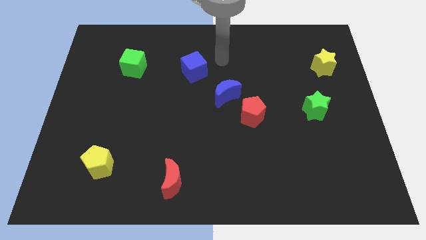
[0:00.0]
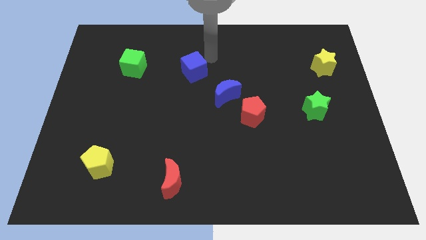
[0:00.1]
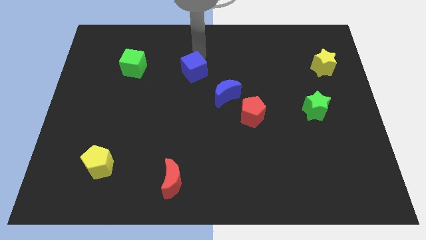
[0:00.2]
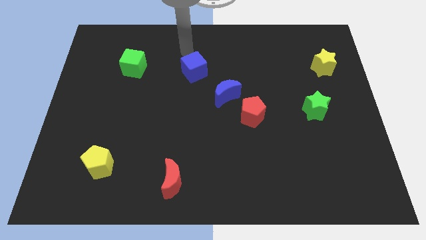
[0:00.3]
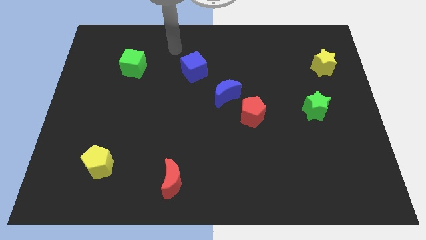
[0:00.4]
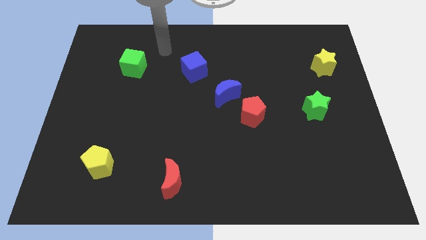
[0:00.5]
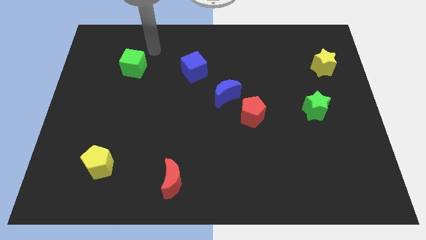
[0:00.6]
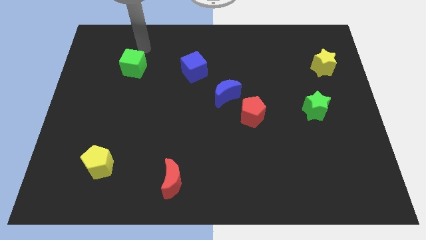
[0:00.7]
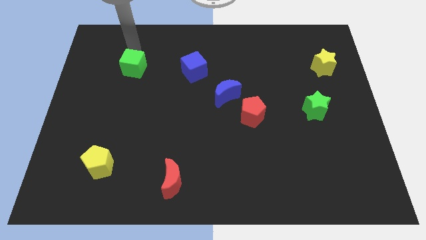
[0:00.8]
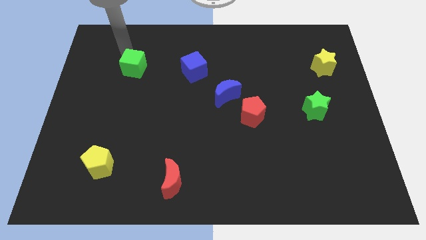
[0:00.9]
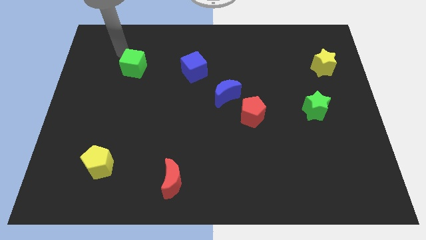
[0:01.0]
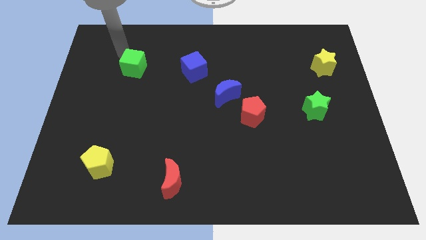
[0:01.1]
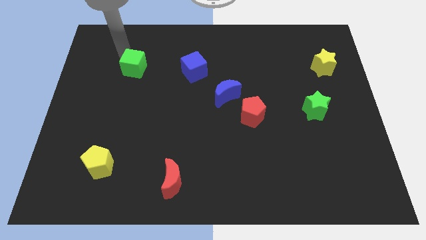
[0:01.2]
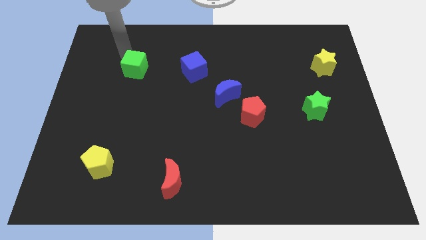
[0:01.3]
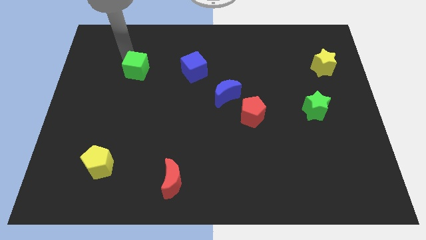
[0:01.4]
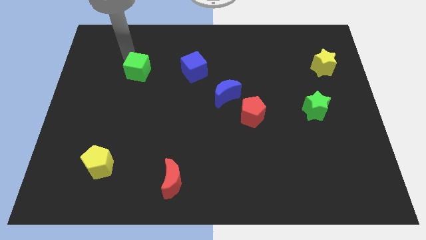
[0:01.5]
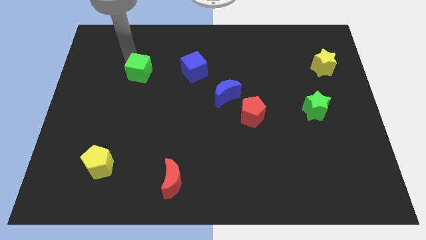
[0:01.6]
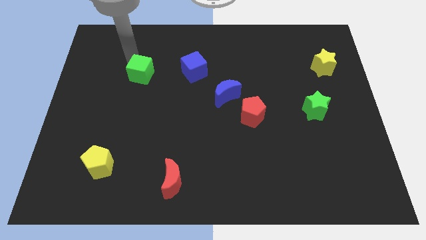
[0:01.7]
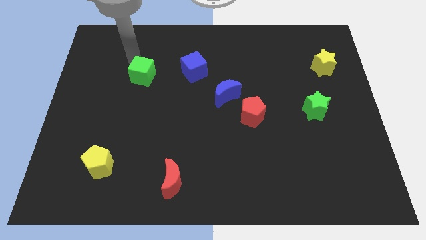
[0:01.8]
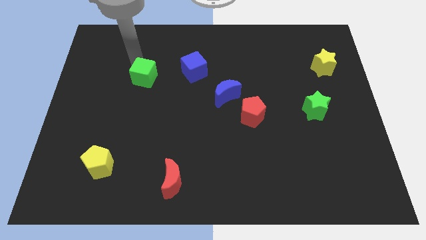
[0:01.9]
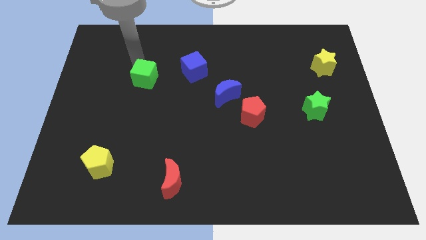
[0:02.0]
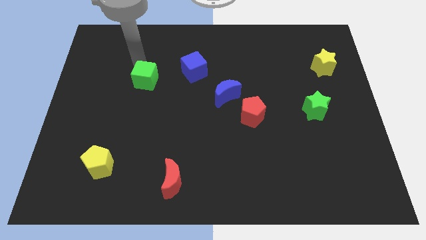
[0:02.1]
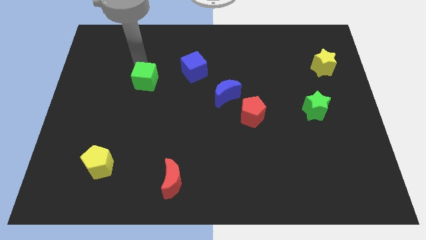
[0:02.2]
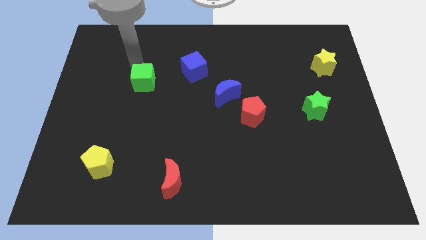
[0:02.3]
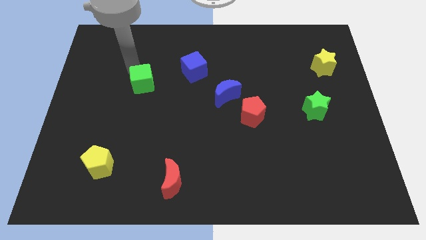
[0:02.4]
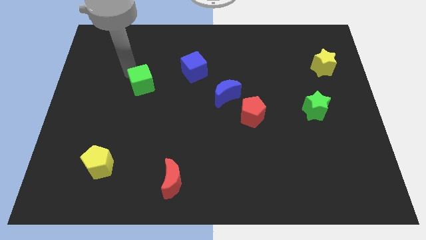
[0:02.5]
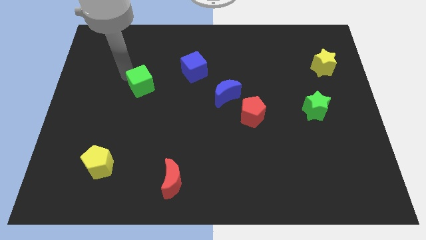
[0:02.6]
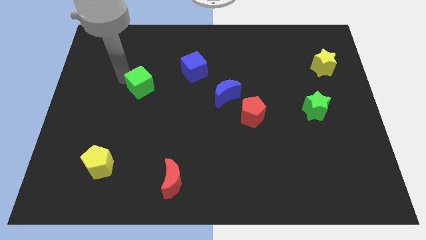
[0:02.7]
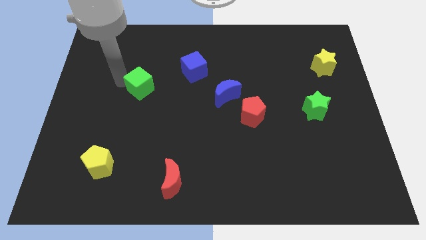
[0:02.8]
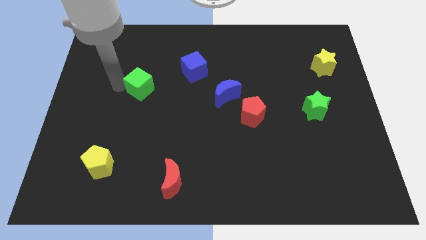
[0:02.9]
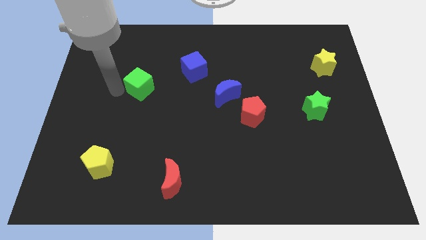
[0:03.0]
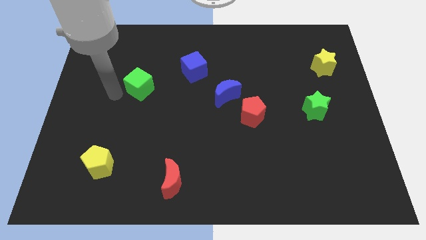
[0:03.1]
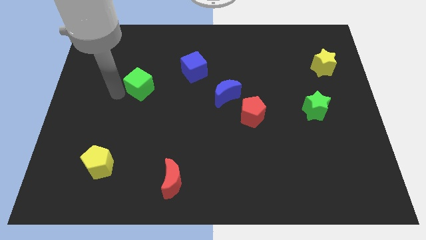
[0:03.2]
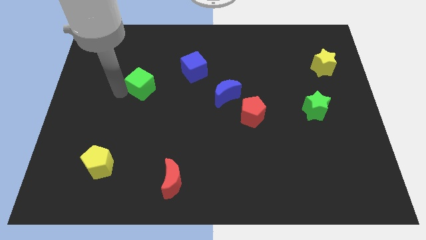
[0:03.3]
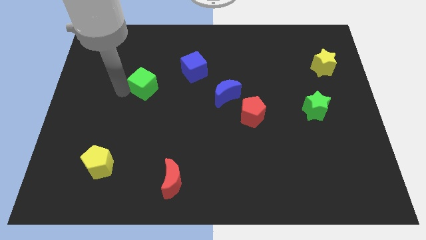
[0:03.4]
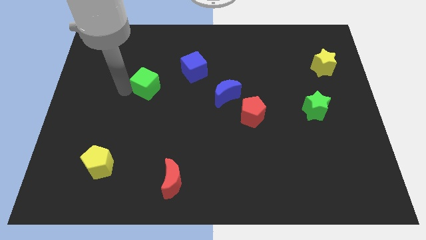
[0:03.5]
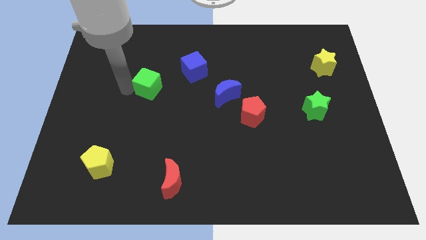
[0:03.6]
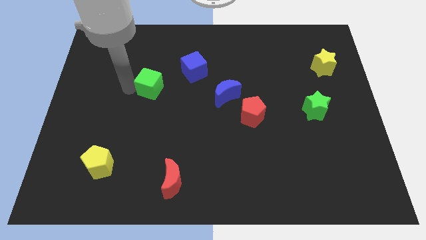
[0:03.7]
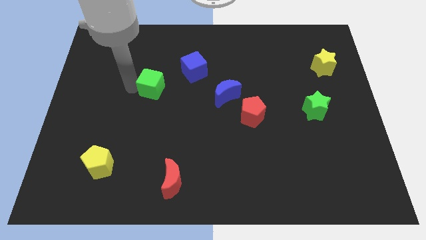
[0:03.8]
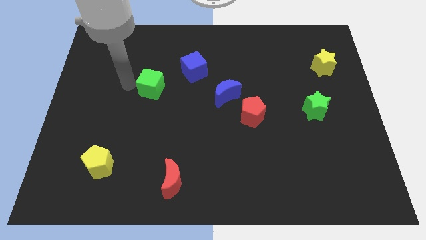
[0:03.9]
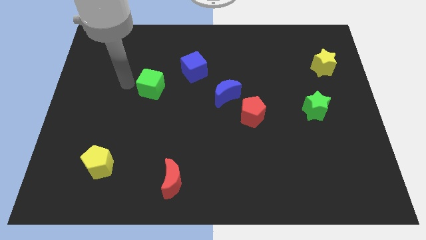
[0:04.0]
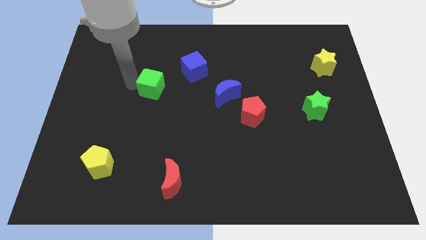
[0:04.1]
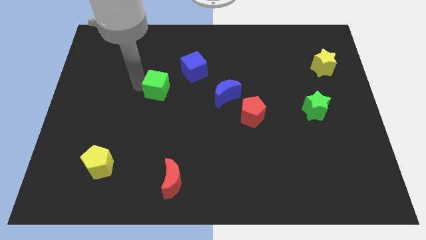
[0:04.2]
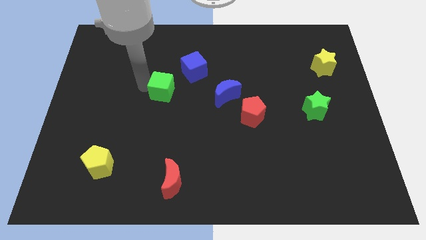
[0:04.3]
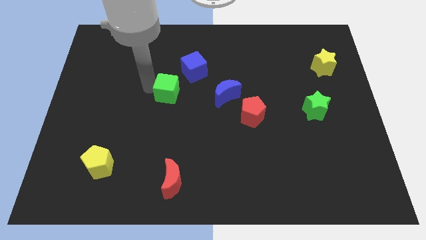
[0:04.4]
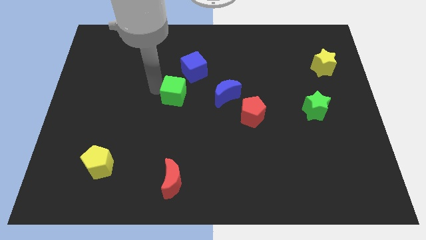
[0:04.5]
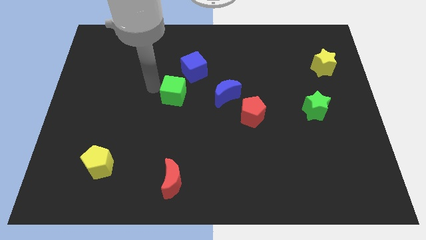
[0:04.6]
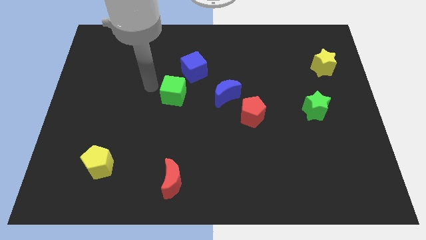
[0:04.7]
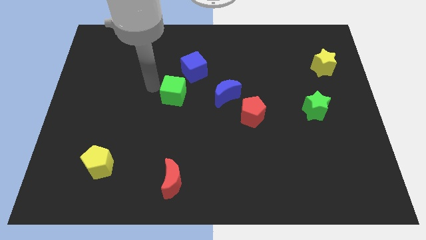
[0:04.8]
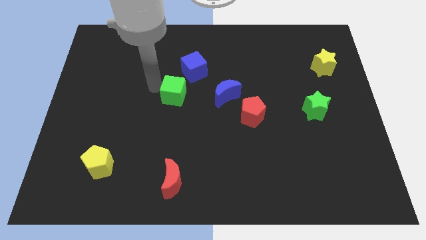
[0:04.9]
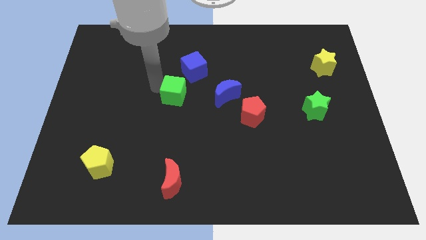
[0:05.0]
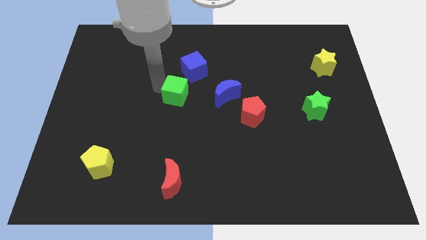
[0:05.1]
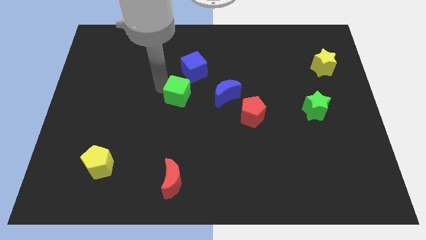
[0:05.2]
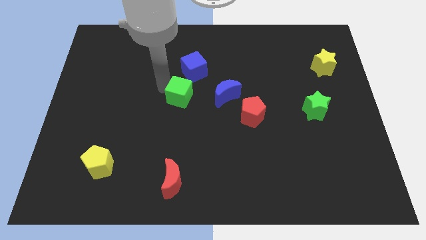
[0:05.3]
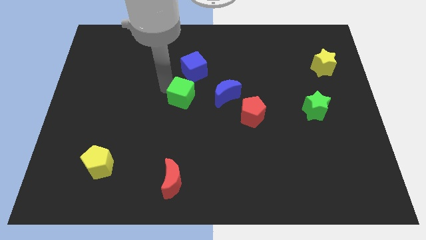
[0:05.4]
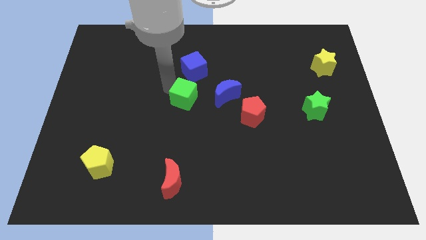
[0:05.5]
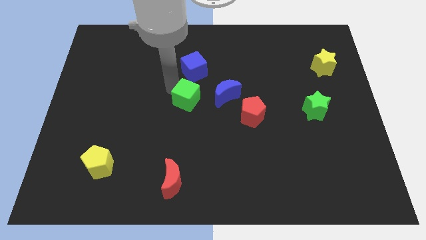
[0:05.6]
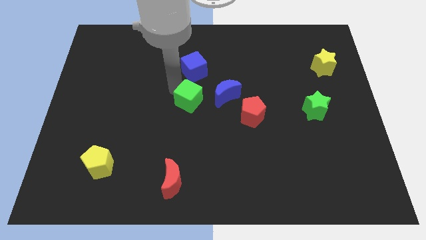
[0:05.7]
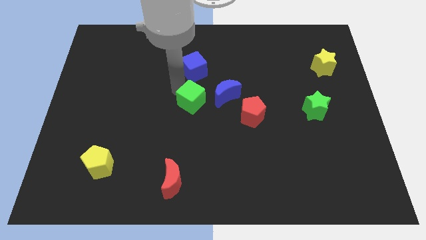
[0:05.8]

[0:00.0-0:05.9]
put the green cube to the bottom left side of the blue moon
